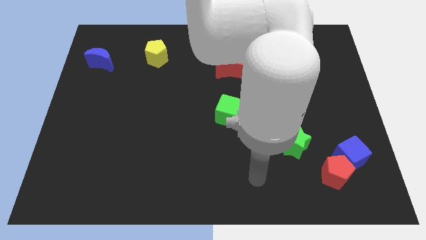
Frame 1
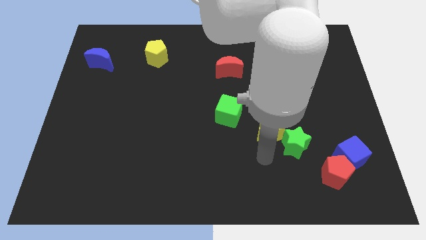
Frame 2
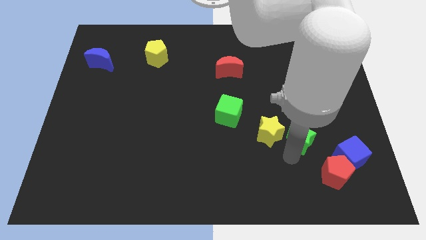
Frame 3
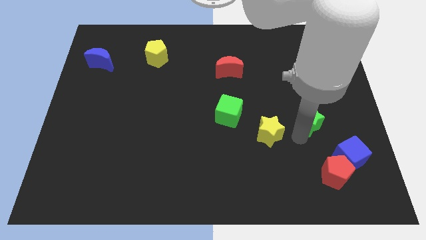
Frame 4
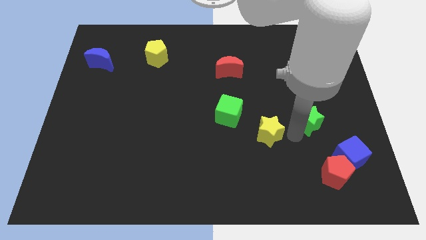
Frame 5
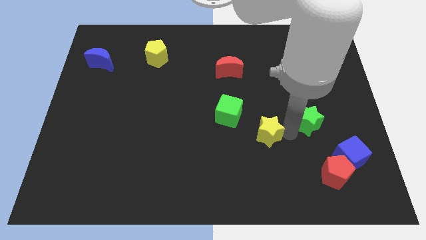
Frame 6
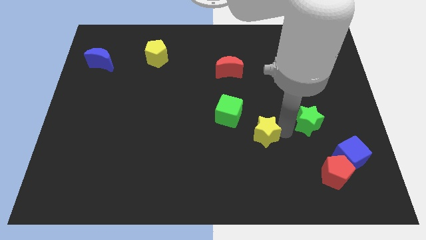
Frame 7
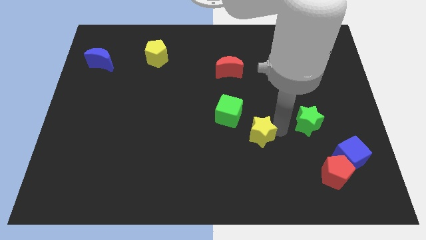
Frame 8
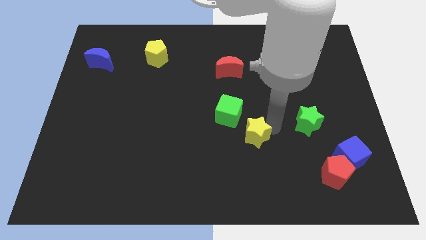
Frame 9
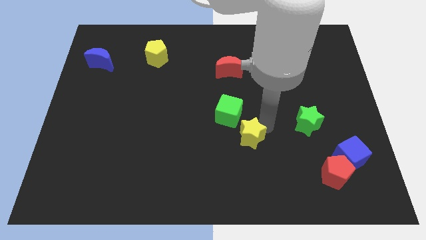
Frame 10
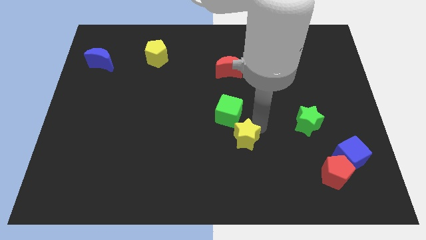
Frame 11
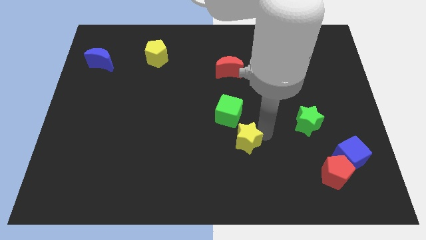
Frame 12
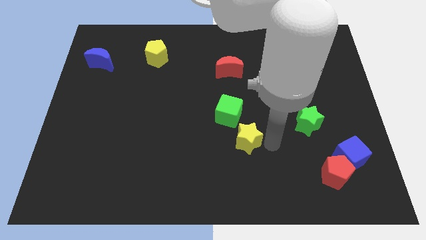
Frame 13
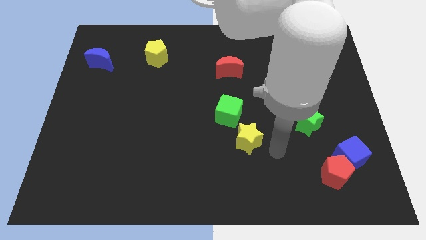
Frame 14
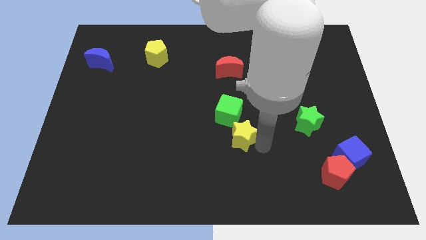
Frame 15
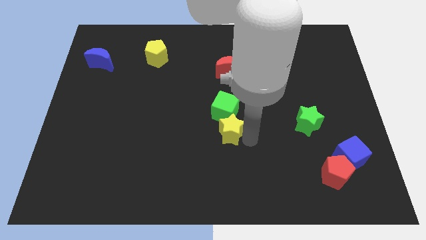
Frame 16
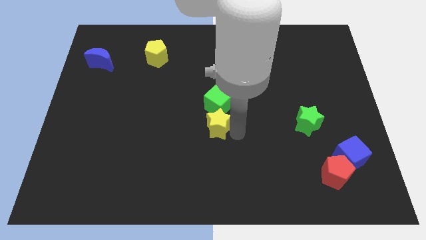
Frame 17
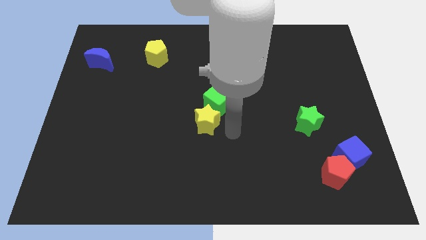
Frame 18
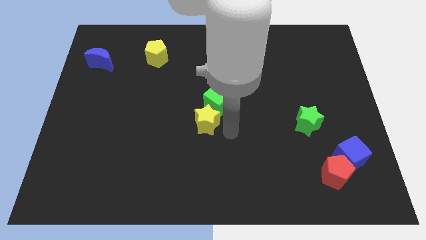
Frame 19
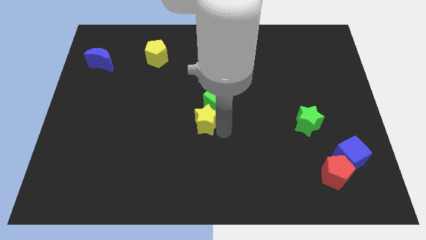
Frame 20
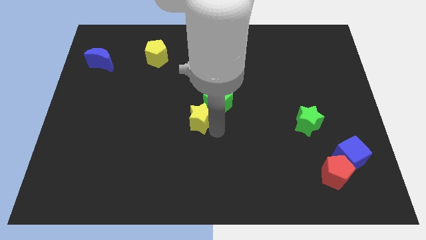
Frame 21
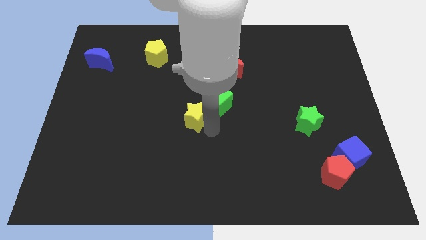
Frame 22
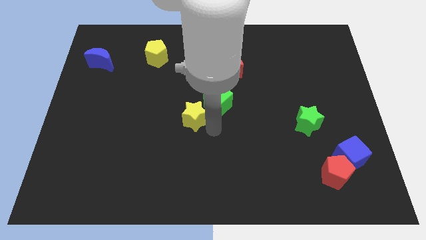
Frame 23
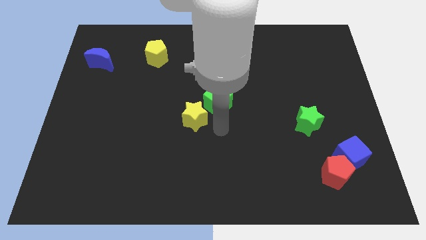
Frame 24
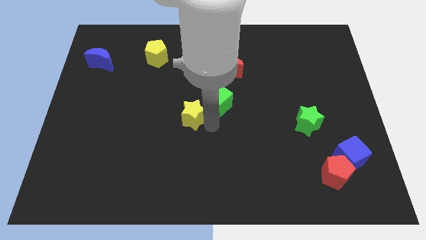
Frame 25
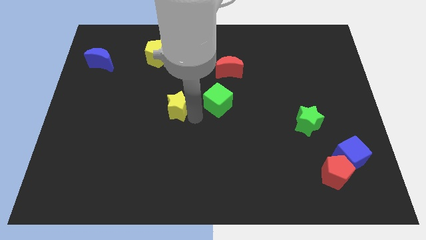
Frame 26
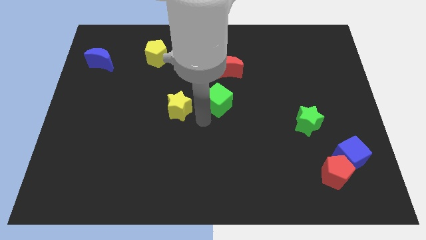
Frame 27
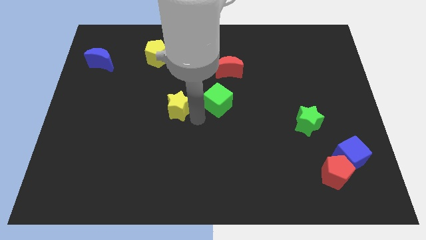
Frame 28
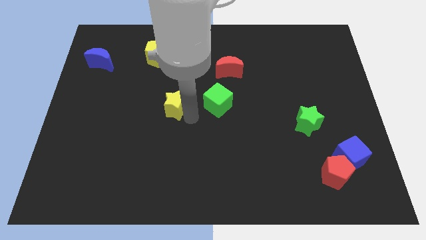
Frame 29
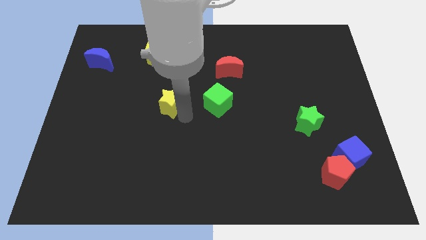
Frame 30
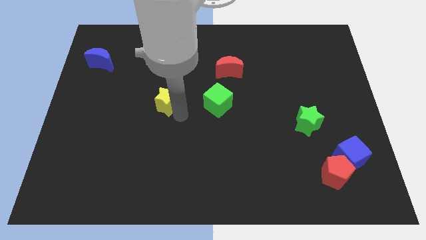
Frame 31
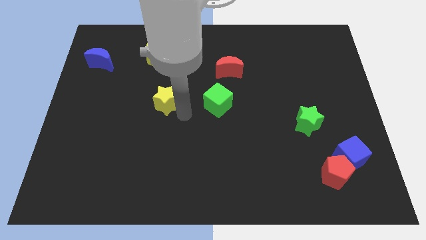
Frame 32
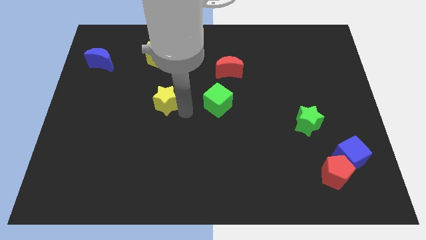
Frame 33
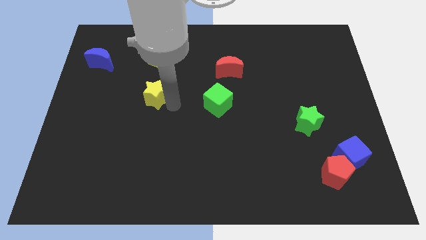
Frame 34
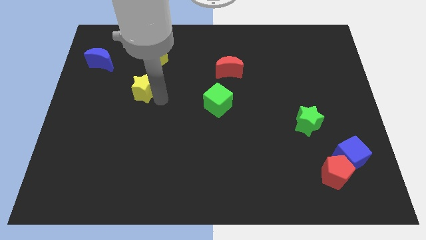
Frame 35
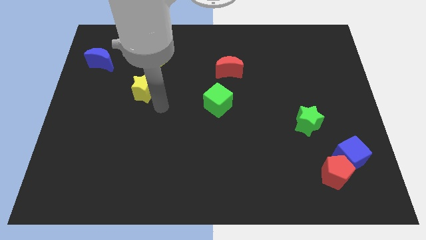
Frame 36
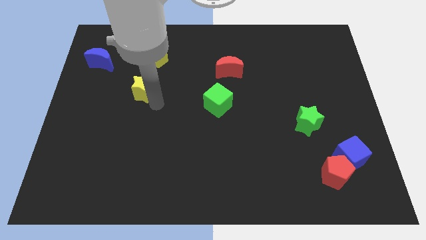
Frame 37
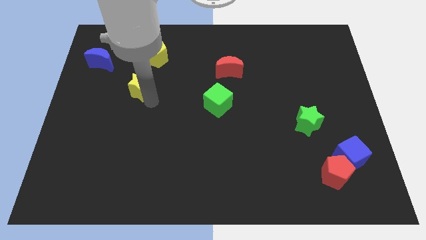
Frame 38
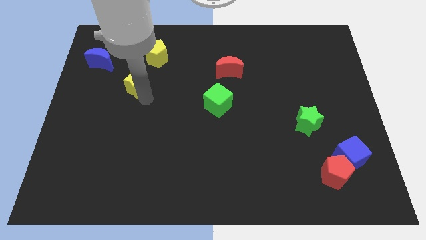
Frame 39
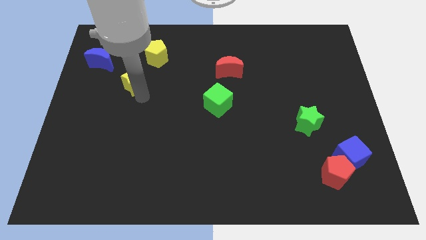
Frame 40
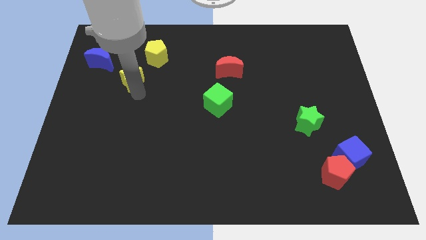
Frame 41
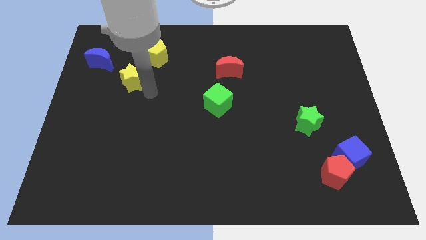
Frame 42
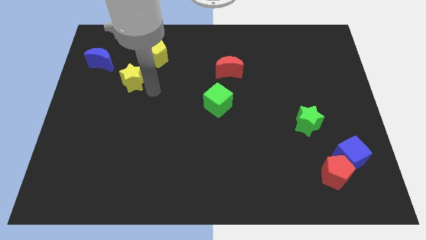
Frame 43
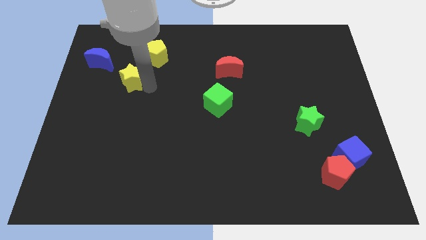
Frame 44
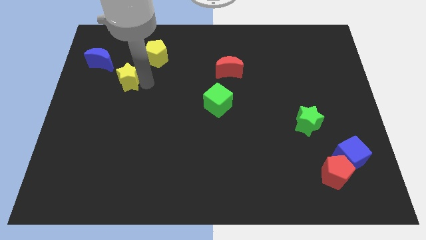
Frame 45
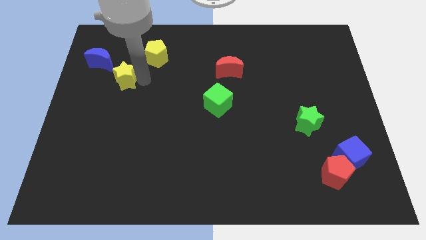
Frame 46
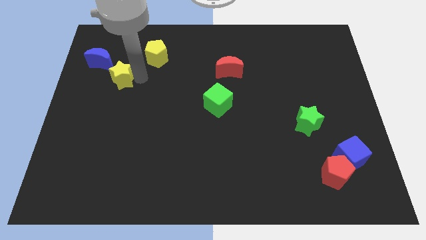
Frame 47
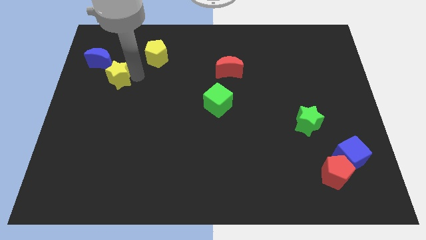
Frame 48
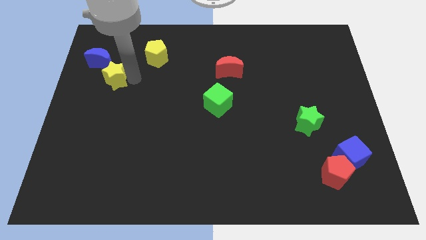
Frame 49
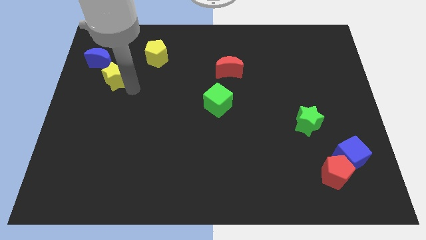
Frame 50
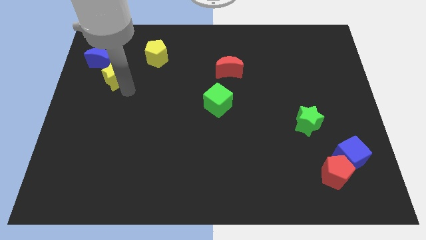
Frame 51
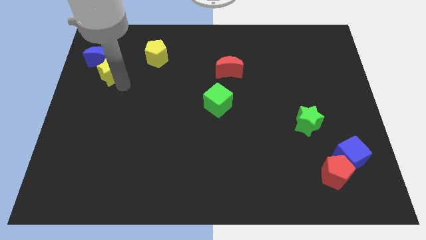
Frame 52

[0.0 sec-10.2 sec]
push the yellow star close to the blue moon

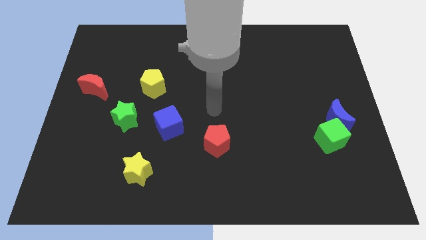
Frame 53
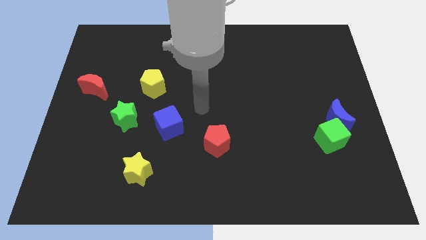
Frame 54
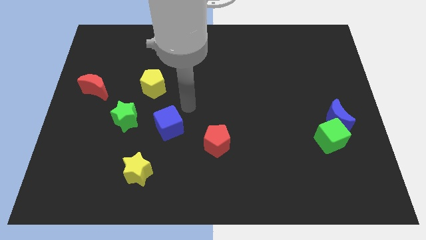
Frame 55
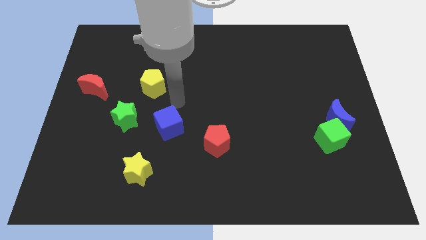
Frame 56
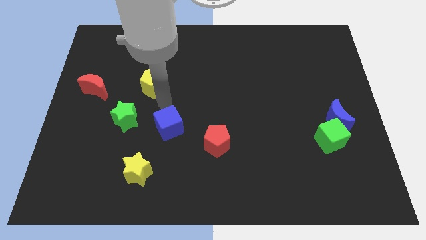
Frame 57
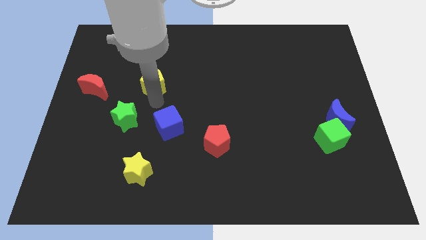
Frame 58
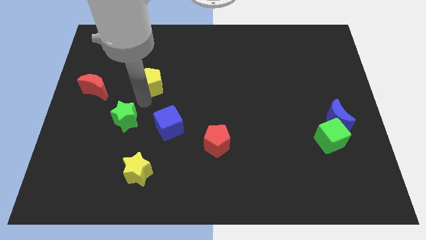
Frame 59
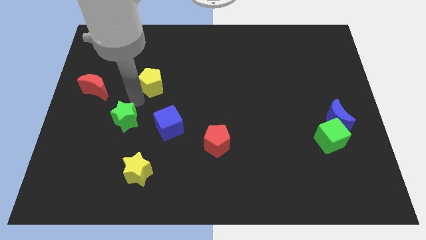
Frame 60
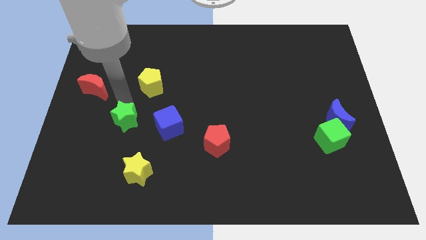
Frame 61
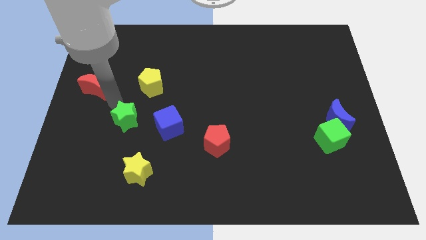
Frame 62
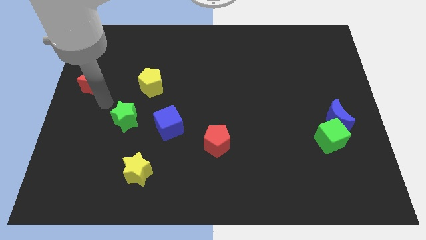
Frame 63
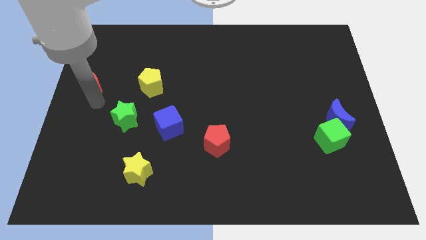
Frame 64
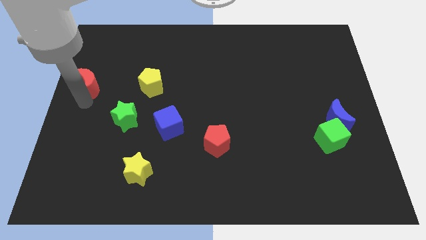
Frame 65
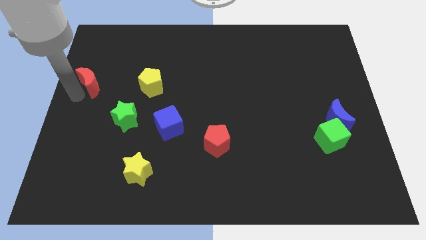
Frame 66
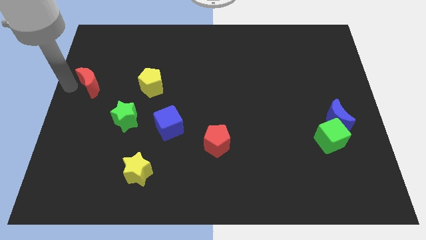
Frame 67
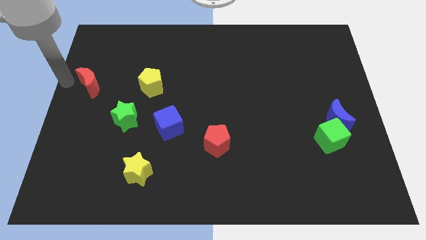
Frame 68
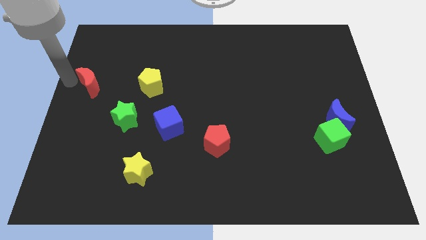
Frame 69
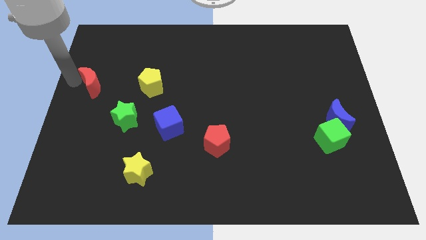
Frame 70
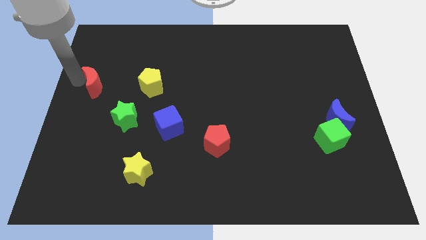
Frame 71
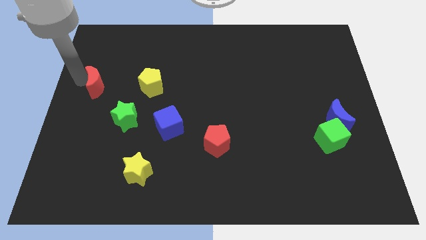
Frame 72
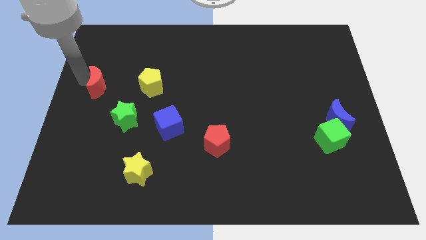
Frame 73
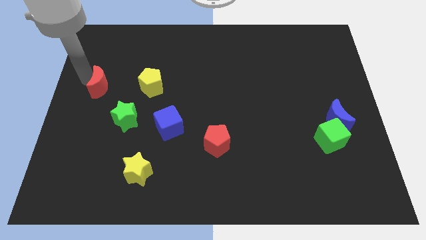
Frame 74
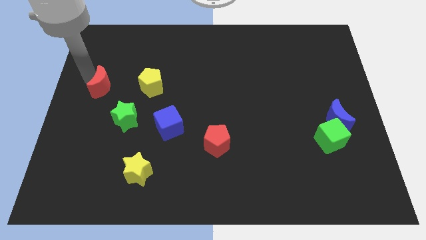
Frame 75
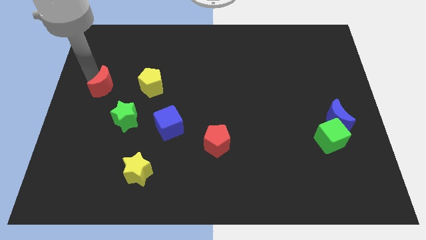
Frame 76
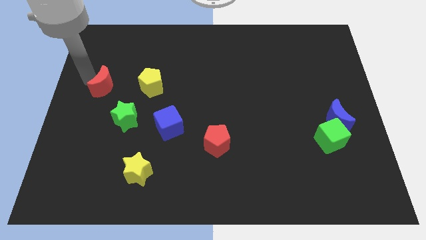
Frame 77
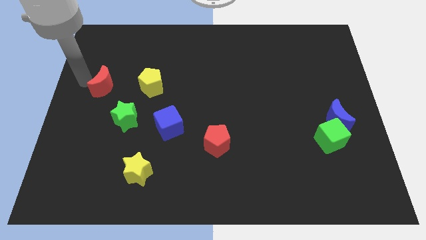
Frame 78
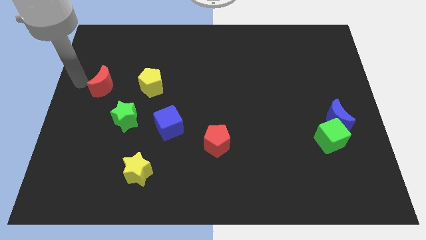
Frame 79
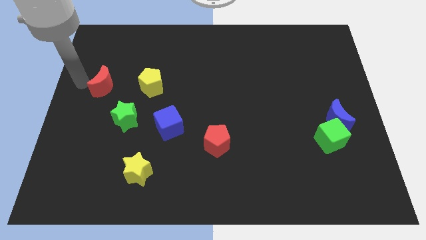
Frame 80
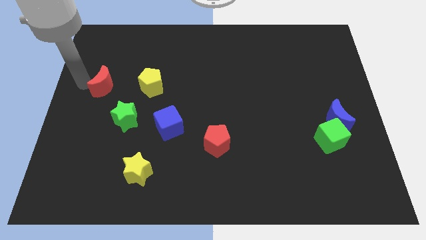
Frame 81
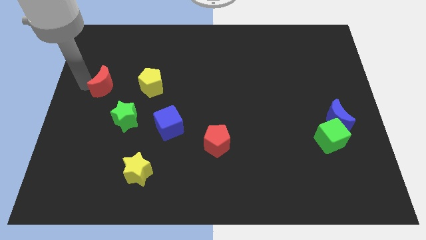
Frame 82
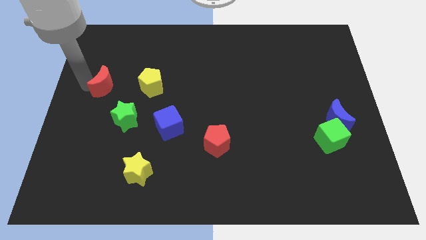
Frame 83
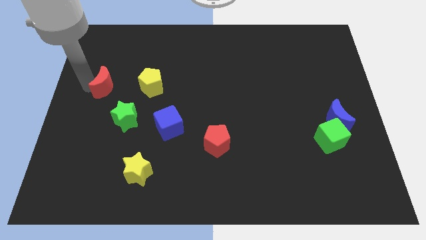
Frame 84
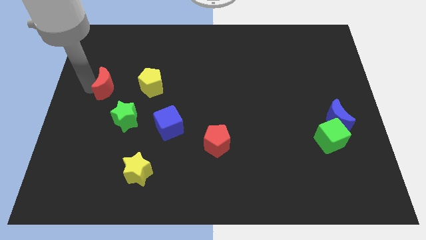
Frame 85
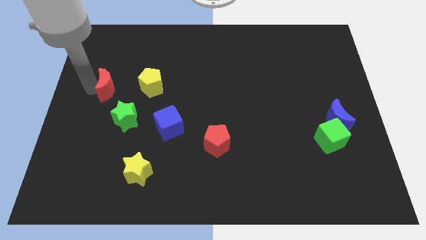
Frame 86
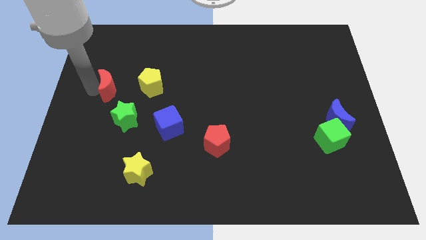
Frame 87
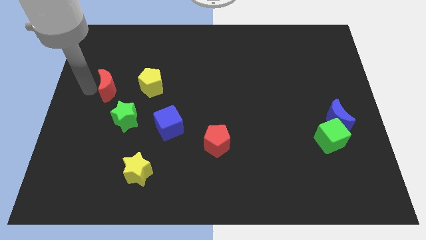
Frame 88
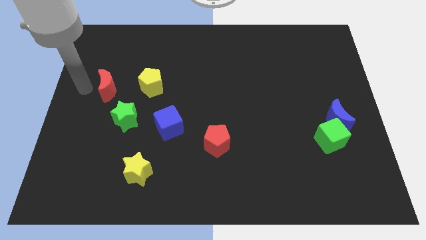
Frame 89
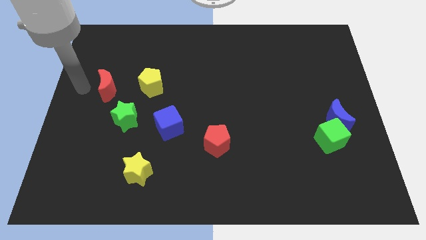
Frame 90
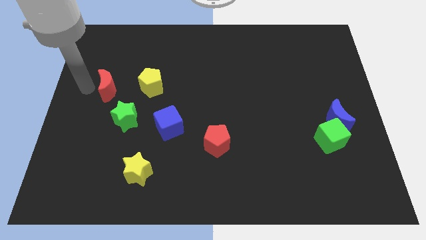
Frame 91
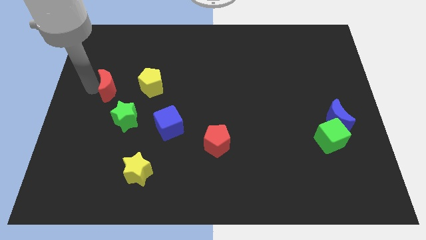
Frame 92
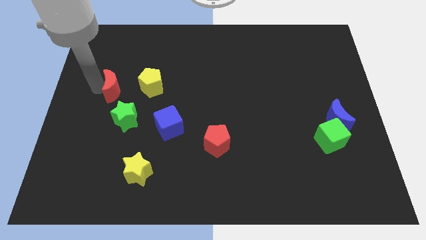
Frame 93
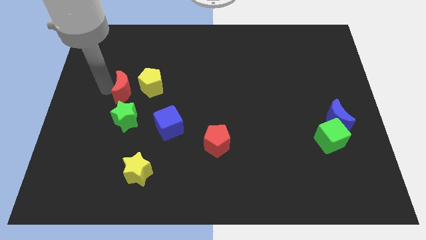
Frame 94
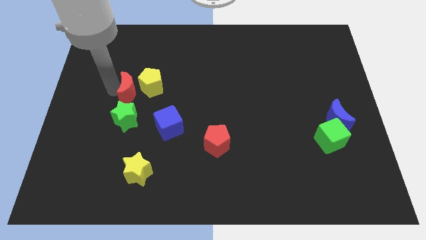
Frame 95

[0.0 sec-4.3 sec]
put the red moon to the yellow pentagon
